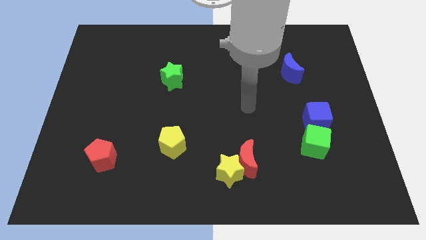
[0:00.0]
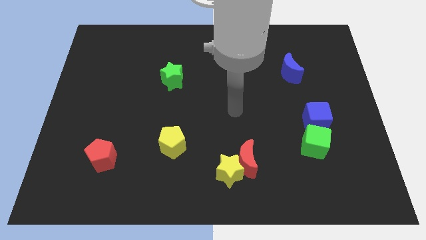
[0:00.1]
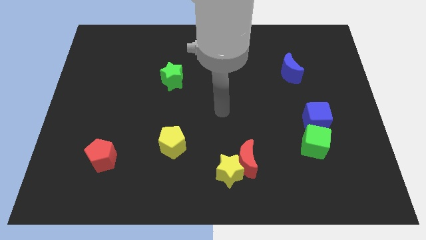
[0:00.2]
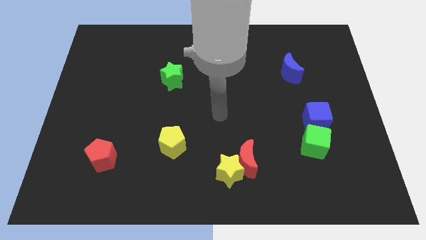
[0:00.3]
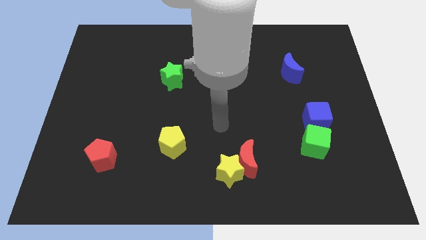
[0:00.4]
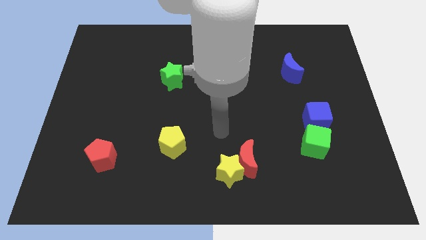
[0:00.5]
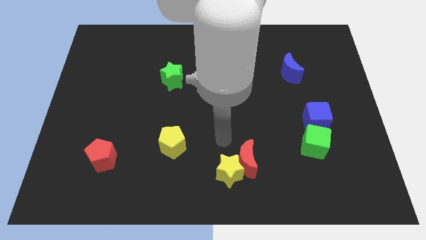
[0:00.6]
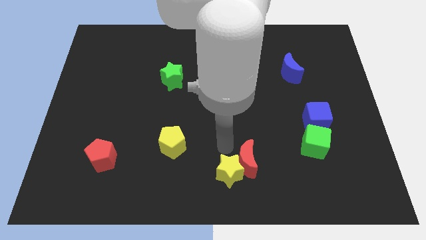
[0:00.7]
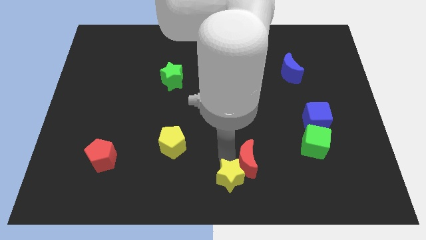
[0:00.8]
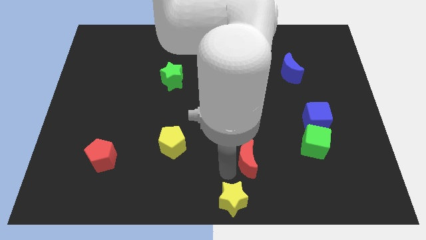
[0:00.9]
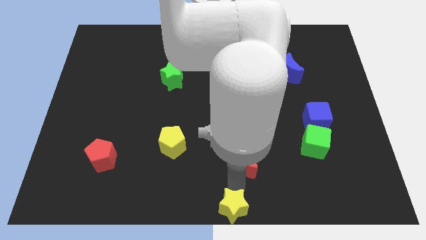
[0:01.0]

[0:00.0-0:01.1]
move the red moon away from the yellow star

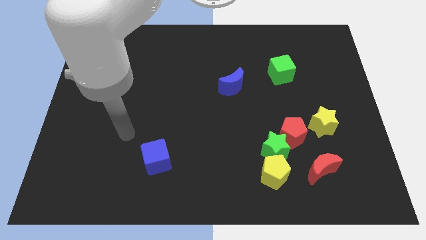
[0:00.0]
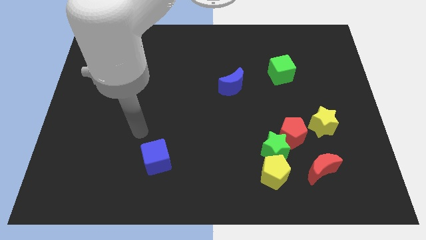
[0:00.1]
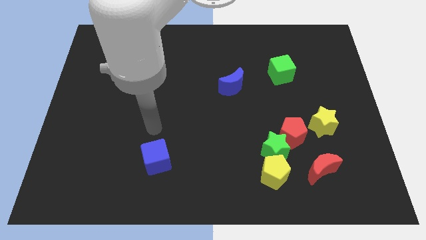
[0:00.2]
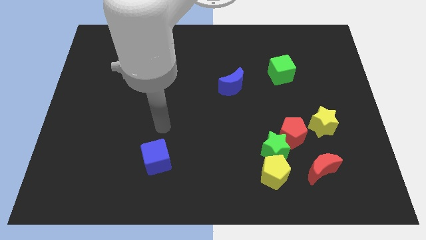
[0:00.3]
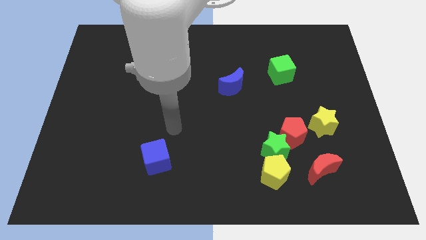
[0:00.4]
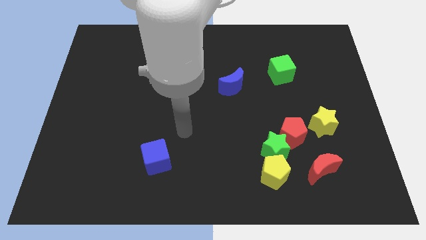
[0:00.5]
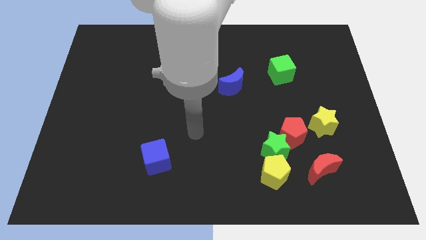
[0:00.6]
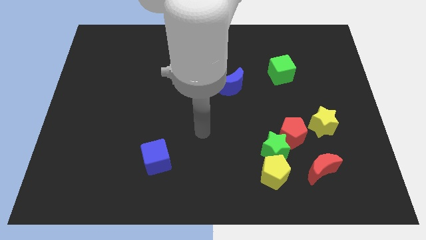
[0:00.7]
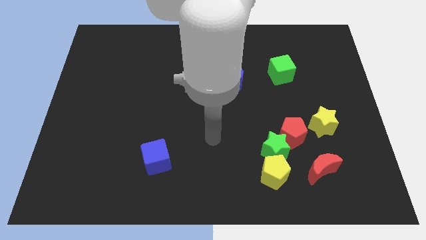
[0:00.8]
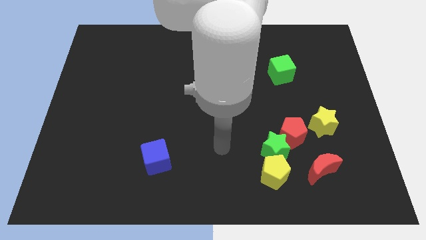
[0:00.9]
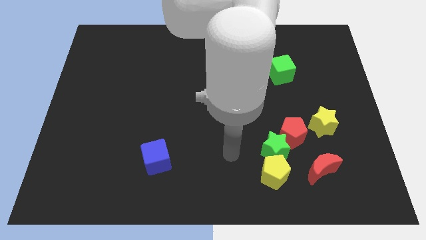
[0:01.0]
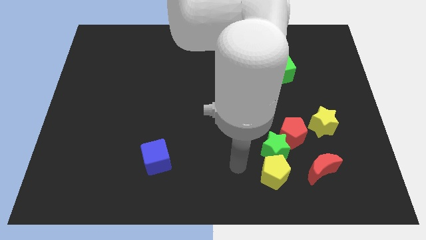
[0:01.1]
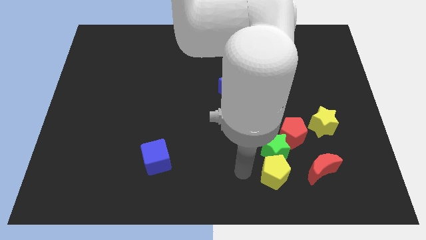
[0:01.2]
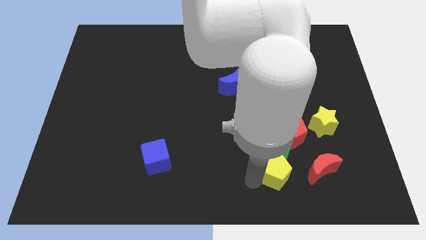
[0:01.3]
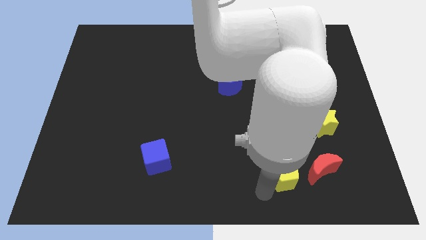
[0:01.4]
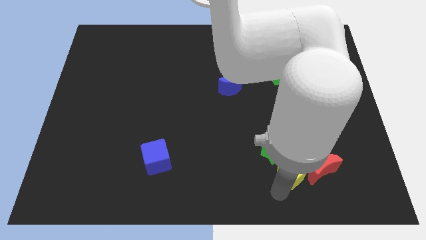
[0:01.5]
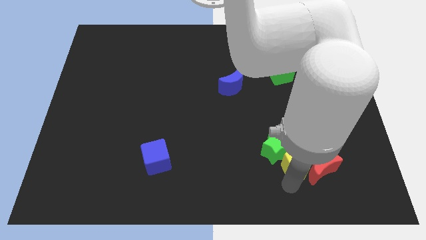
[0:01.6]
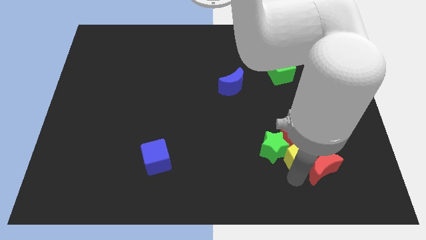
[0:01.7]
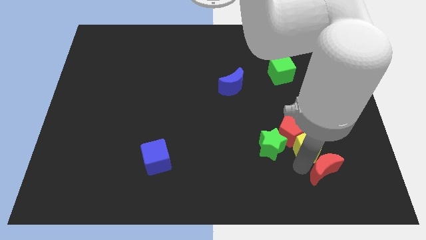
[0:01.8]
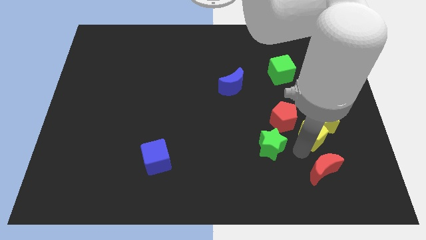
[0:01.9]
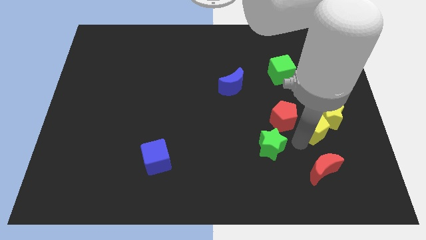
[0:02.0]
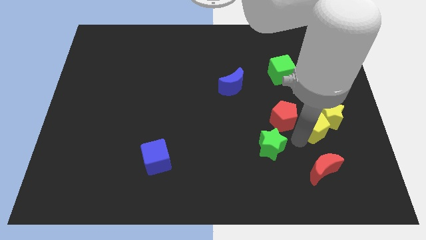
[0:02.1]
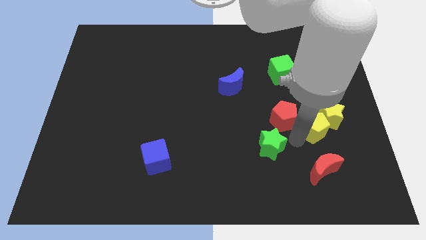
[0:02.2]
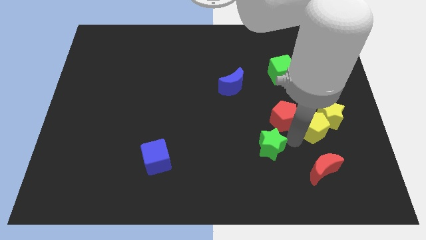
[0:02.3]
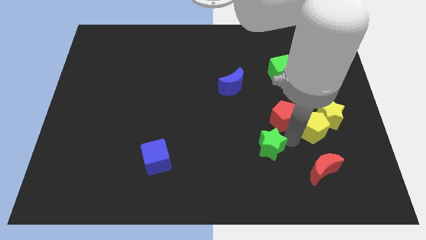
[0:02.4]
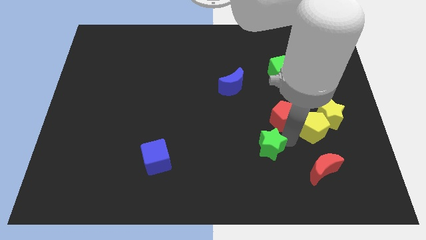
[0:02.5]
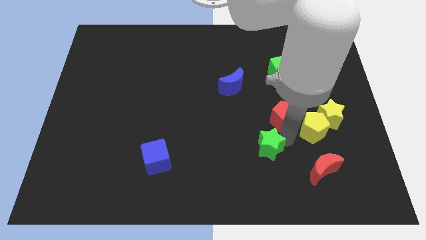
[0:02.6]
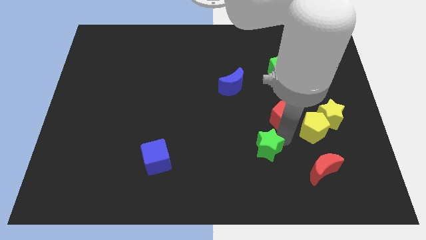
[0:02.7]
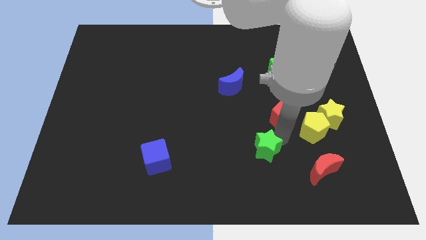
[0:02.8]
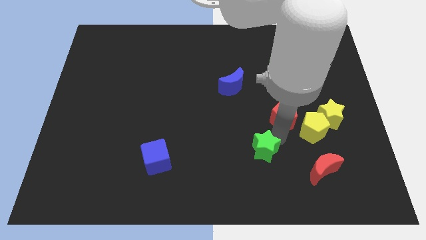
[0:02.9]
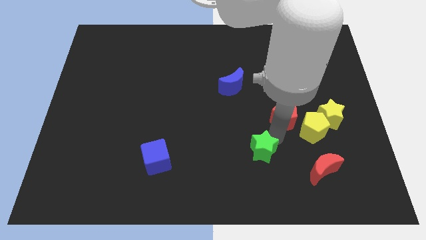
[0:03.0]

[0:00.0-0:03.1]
separate the green star from the red pentagon, yellow pentagon, and red moon

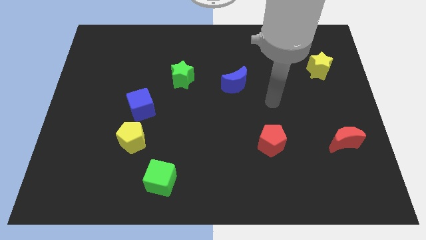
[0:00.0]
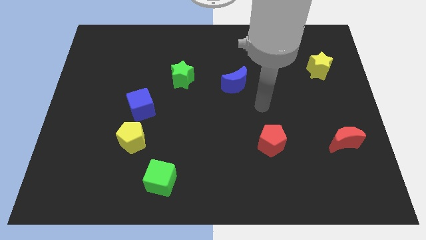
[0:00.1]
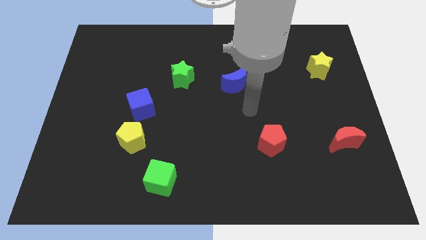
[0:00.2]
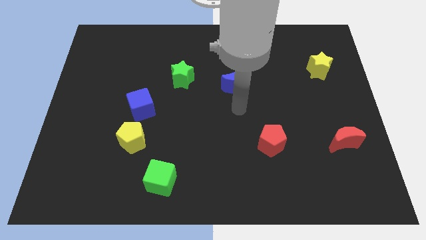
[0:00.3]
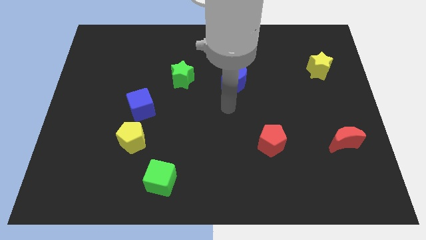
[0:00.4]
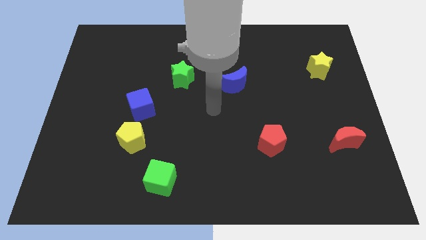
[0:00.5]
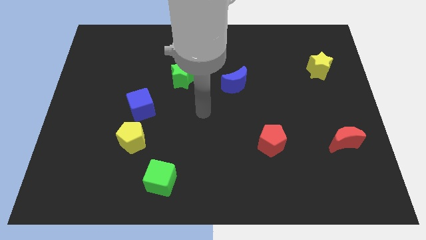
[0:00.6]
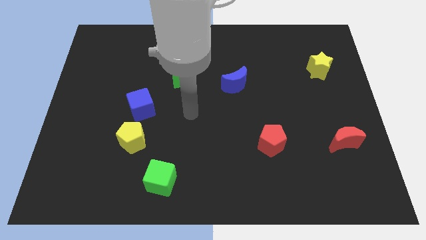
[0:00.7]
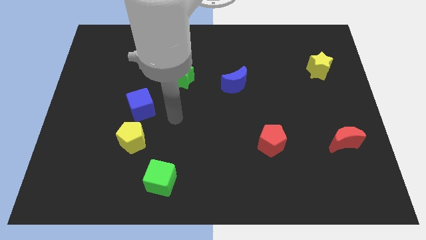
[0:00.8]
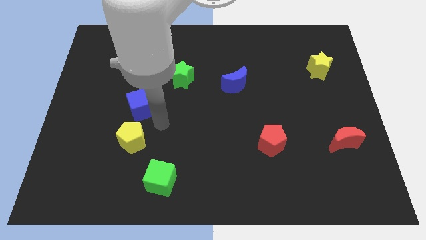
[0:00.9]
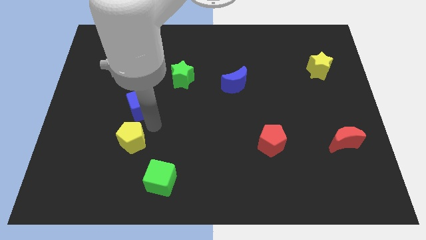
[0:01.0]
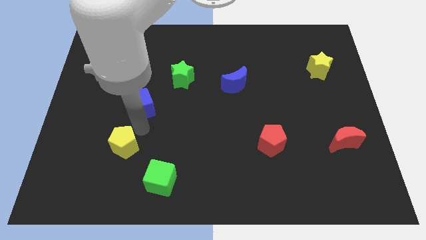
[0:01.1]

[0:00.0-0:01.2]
move the blue cube away from the yellow pentagon

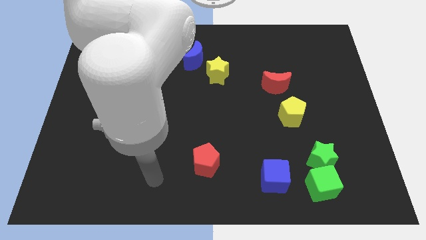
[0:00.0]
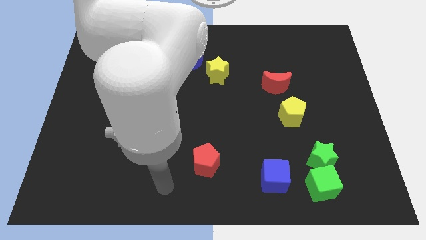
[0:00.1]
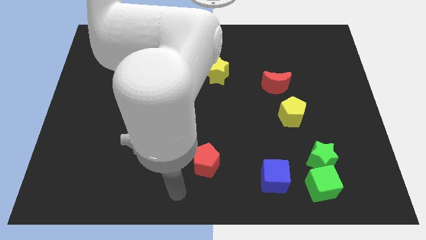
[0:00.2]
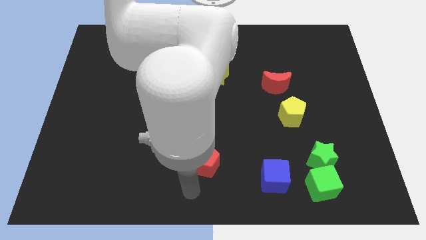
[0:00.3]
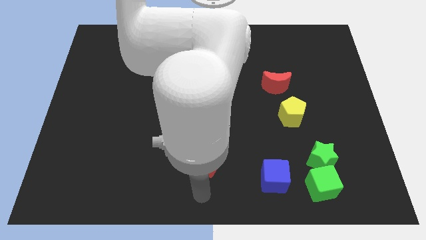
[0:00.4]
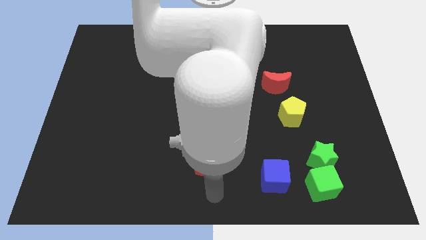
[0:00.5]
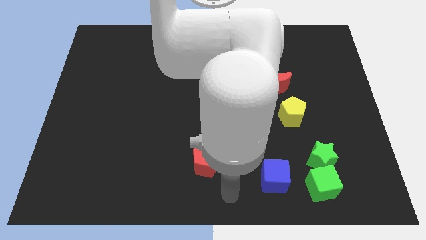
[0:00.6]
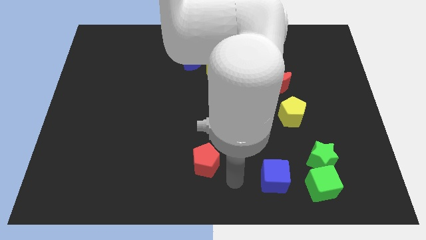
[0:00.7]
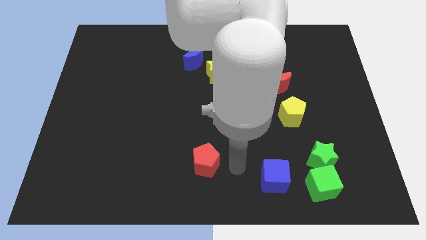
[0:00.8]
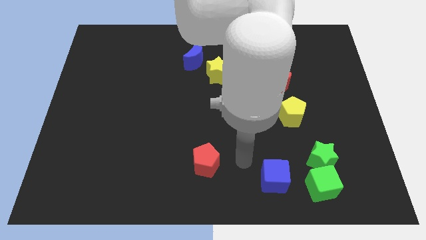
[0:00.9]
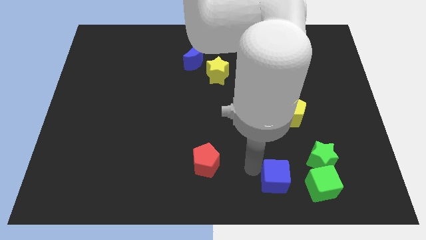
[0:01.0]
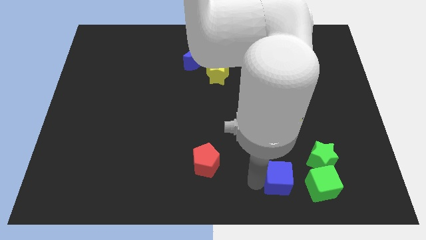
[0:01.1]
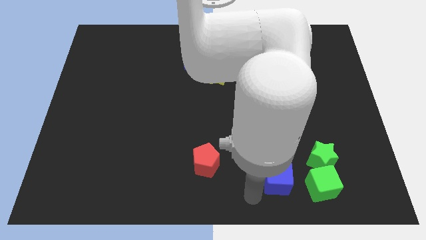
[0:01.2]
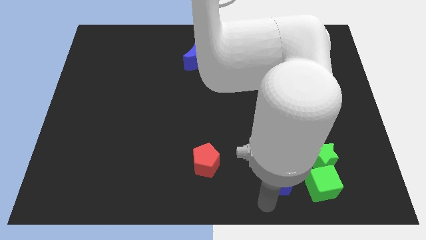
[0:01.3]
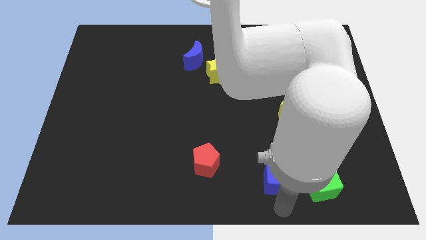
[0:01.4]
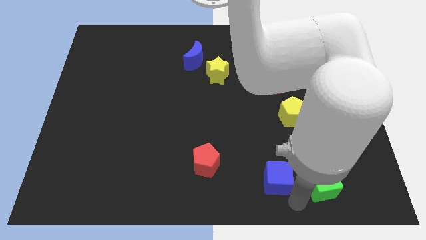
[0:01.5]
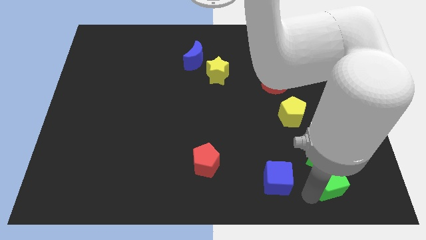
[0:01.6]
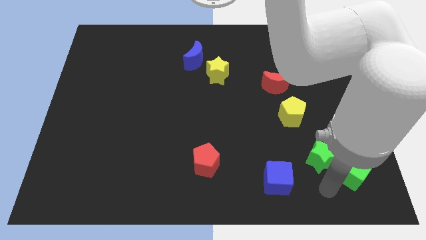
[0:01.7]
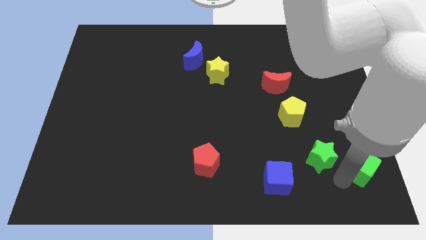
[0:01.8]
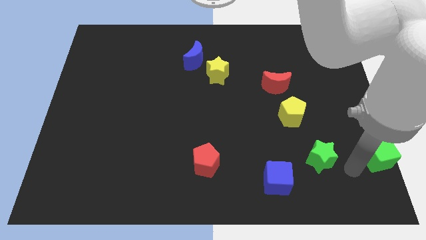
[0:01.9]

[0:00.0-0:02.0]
pull the green star apart from the green cube

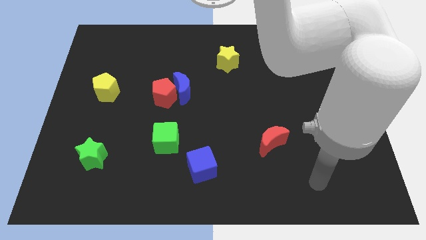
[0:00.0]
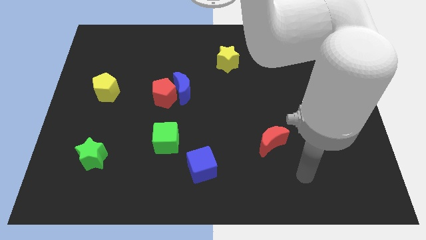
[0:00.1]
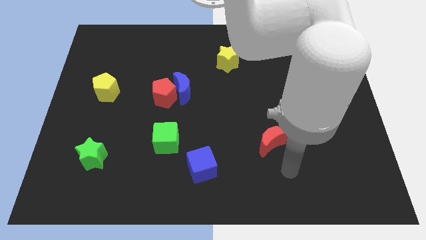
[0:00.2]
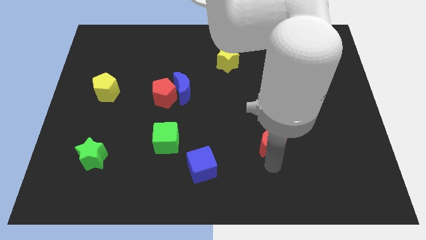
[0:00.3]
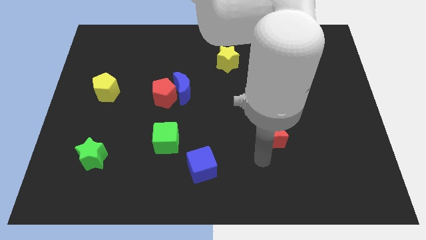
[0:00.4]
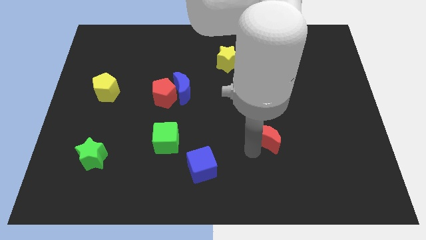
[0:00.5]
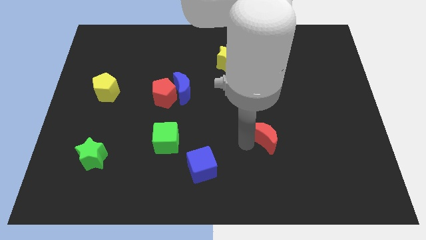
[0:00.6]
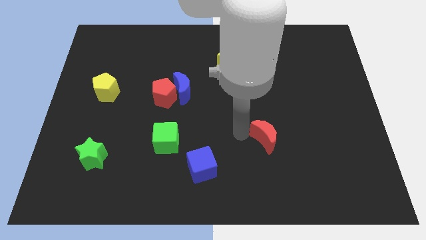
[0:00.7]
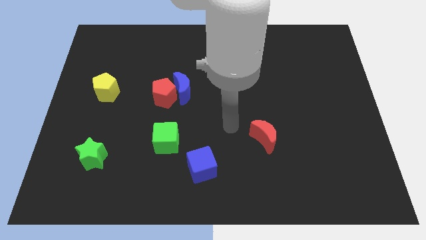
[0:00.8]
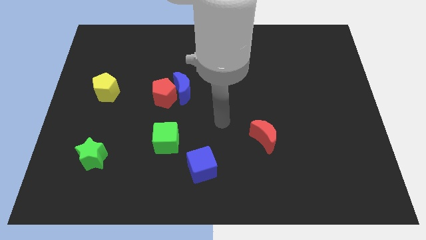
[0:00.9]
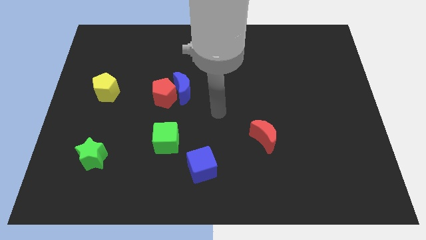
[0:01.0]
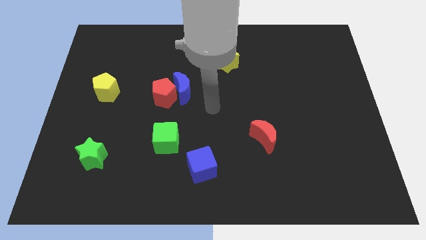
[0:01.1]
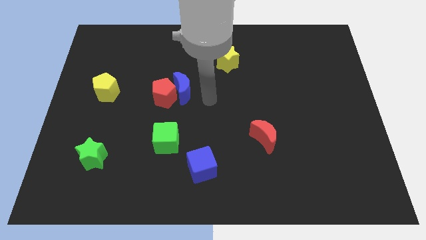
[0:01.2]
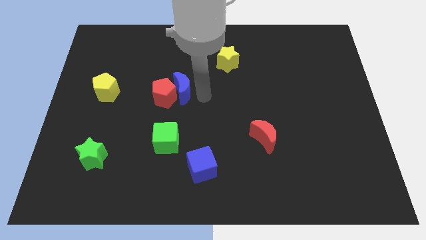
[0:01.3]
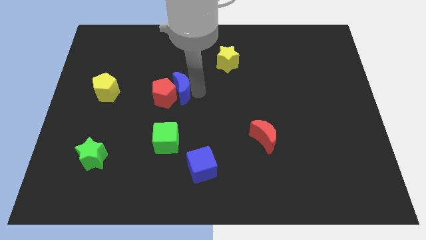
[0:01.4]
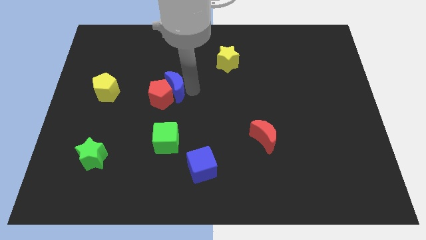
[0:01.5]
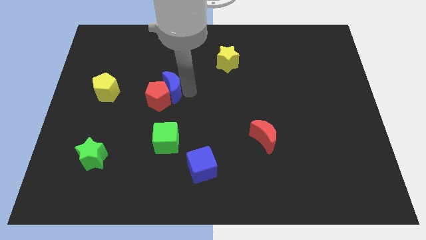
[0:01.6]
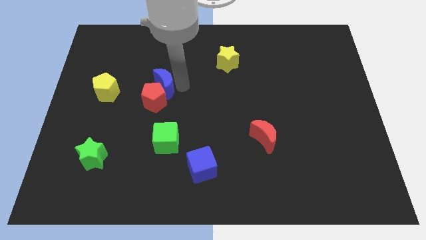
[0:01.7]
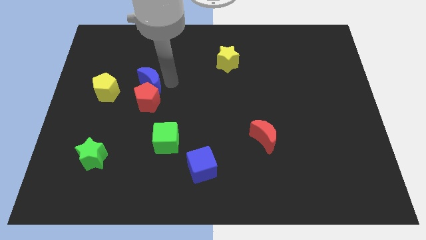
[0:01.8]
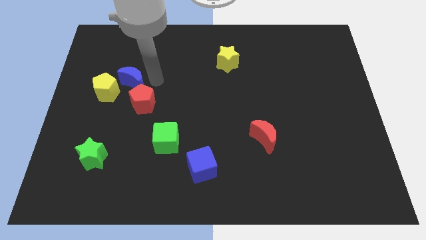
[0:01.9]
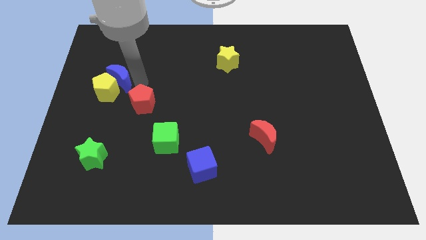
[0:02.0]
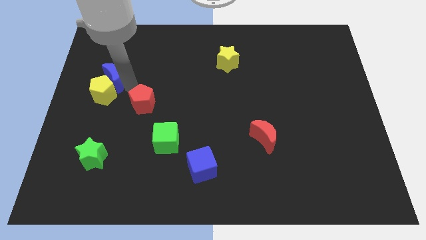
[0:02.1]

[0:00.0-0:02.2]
pull the red pentagon apart from the blue moon
